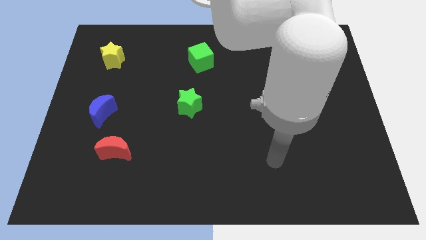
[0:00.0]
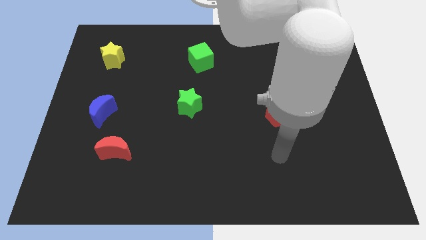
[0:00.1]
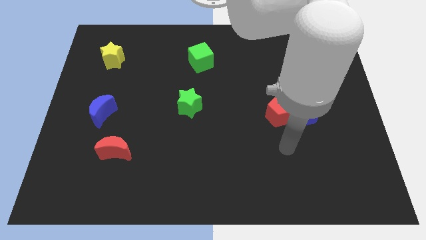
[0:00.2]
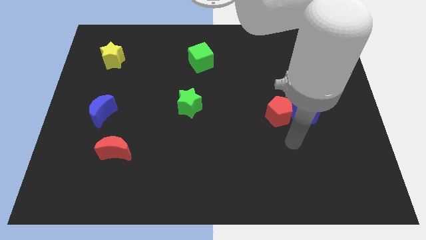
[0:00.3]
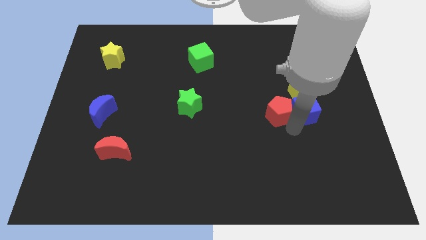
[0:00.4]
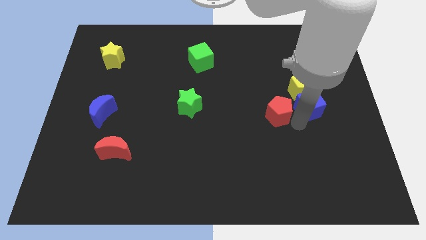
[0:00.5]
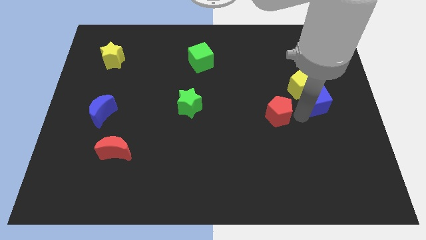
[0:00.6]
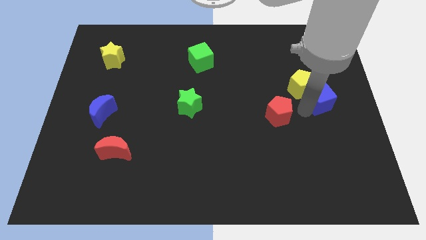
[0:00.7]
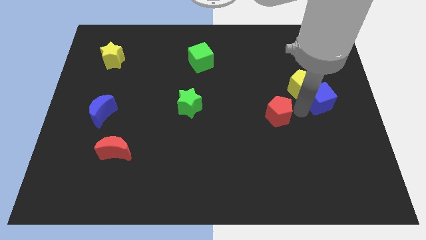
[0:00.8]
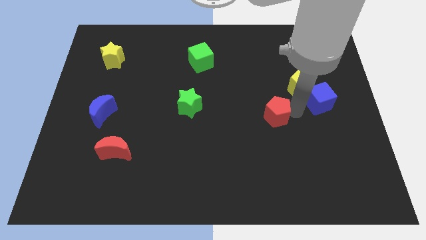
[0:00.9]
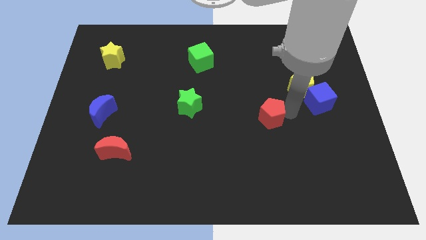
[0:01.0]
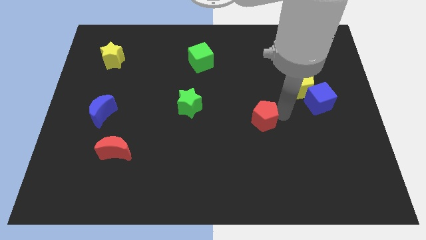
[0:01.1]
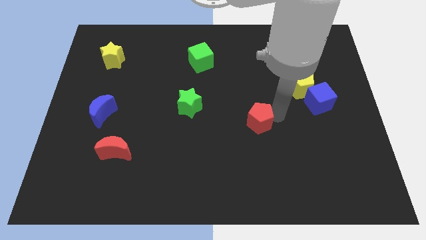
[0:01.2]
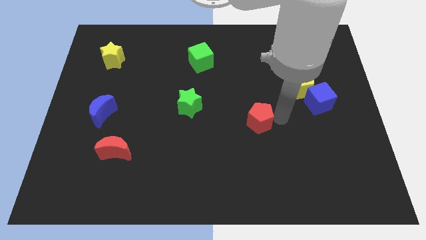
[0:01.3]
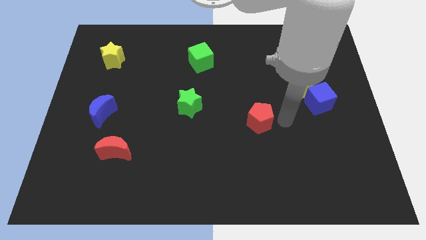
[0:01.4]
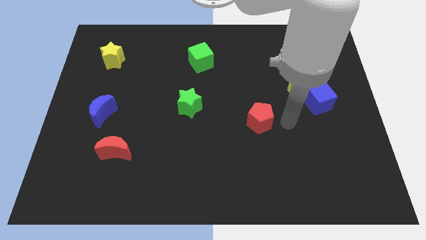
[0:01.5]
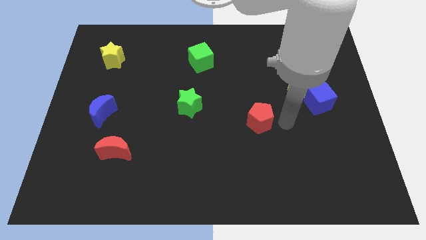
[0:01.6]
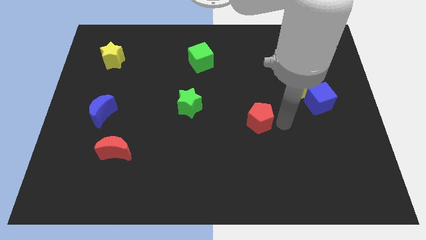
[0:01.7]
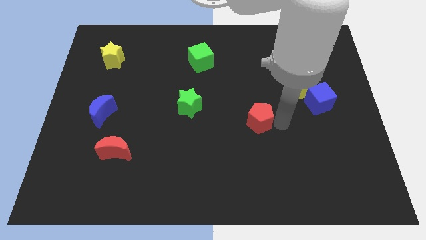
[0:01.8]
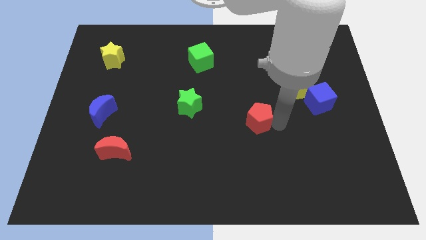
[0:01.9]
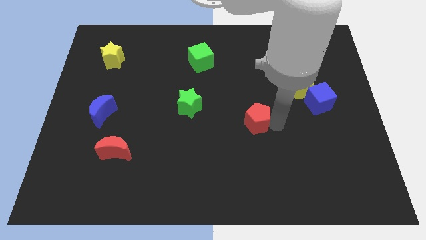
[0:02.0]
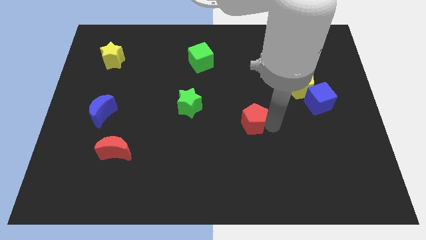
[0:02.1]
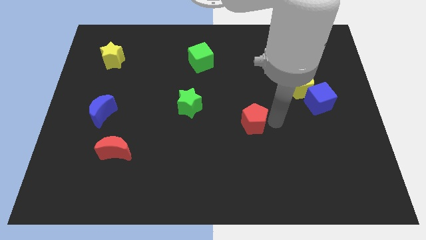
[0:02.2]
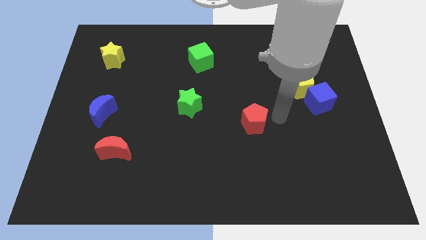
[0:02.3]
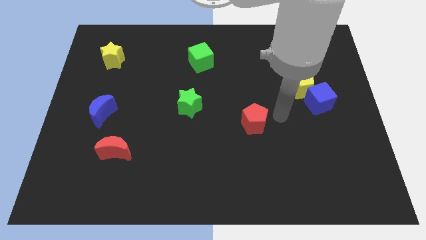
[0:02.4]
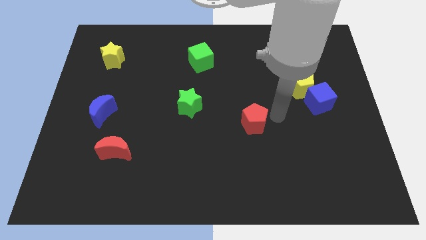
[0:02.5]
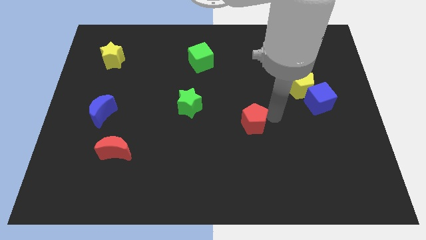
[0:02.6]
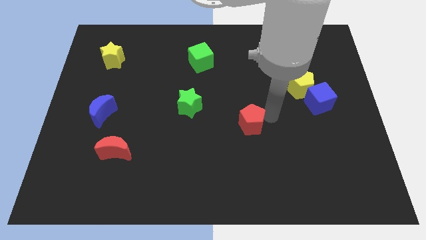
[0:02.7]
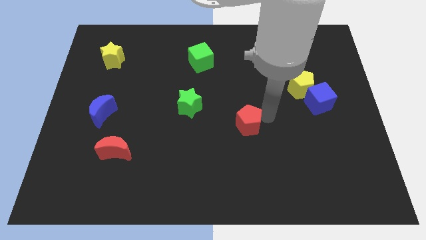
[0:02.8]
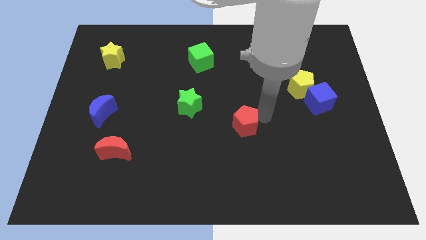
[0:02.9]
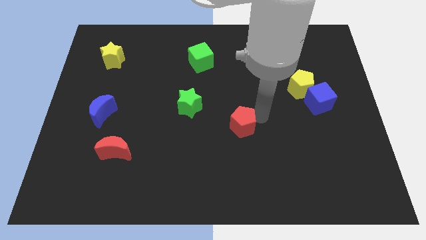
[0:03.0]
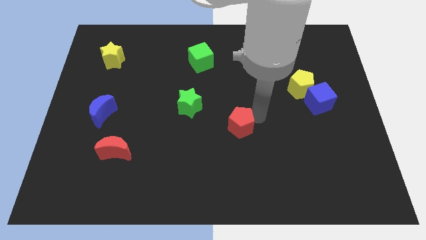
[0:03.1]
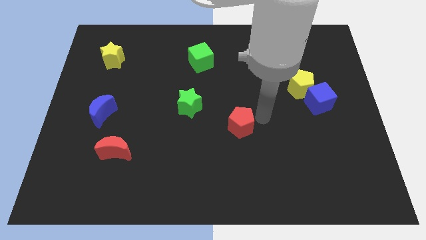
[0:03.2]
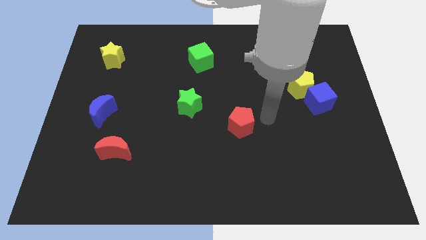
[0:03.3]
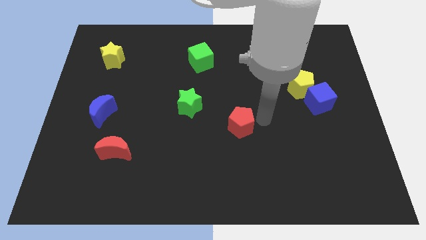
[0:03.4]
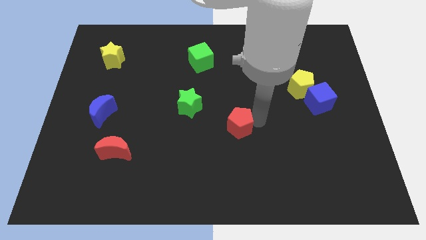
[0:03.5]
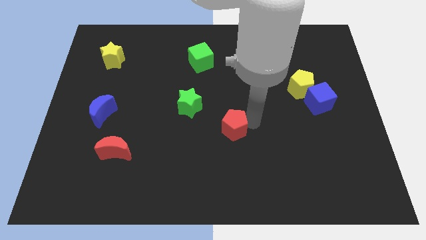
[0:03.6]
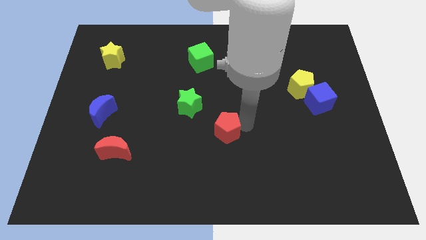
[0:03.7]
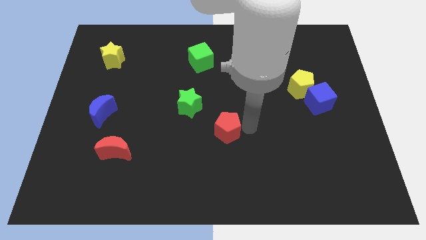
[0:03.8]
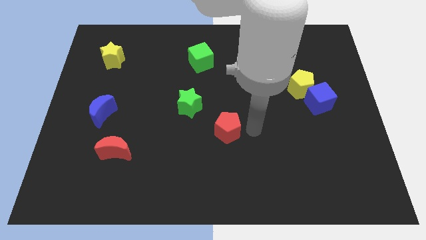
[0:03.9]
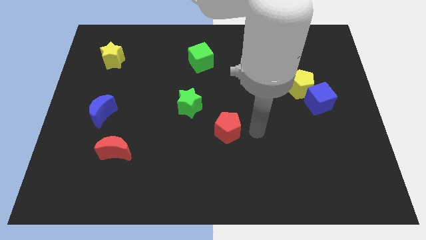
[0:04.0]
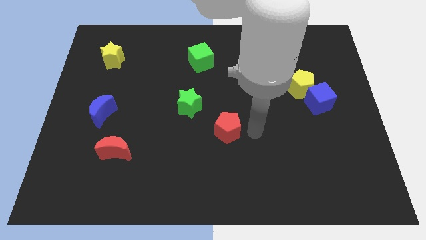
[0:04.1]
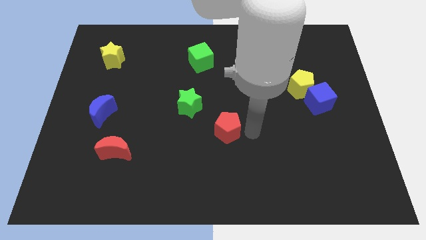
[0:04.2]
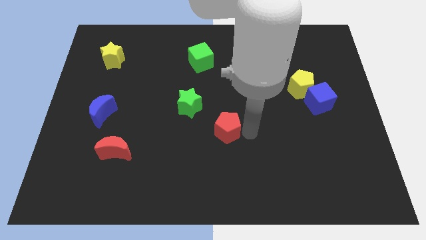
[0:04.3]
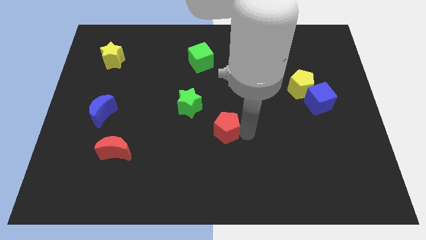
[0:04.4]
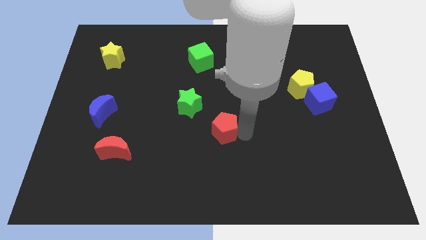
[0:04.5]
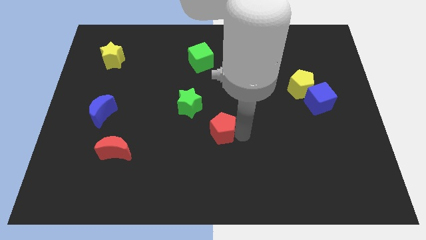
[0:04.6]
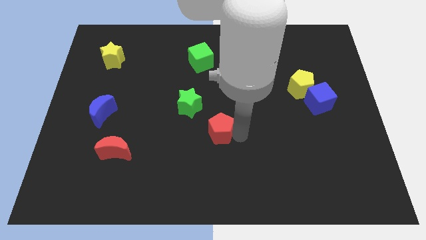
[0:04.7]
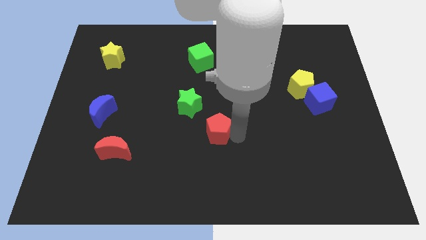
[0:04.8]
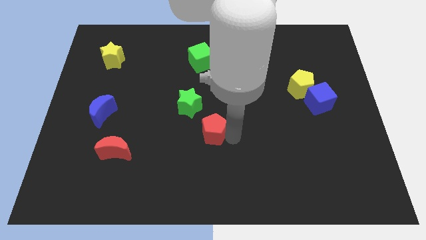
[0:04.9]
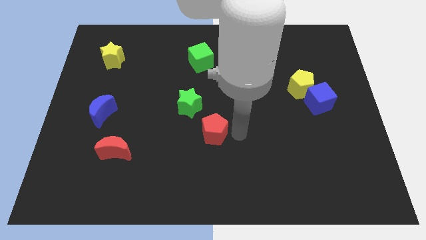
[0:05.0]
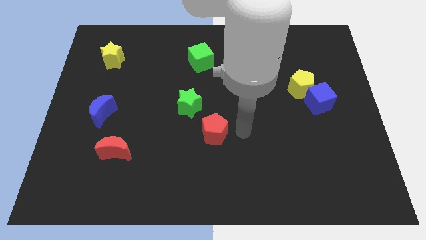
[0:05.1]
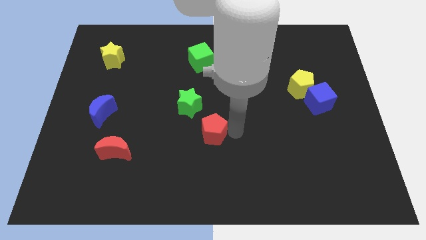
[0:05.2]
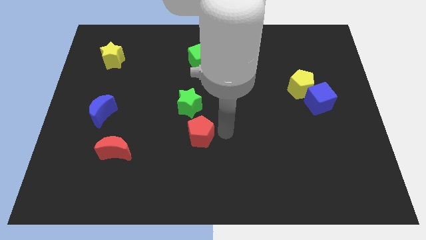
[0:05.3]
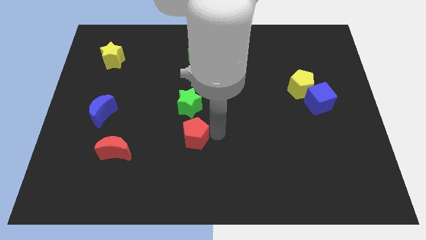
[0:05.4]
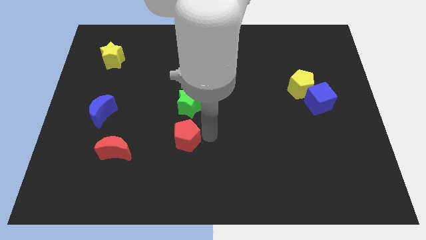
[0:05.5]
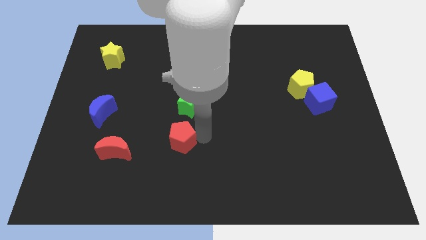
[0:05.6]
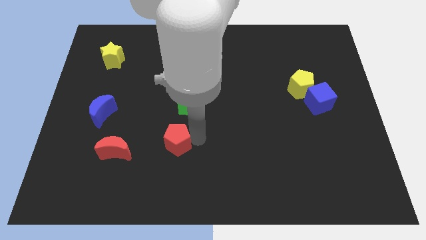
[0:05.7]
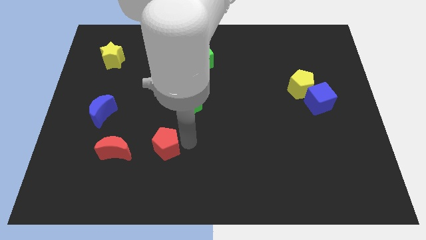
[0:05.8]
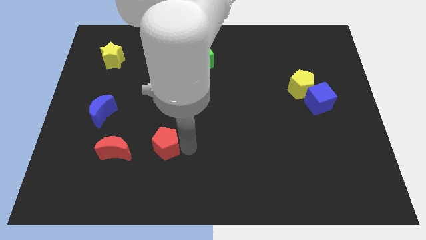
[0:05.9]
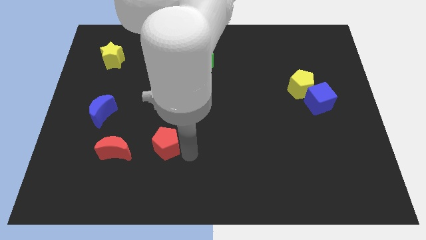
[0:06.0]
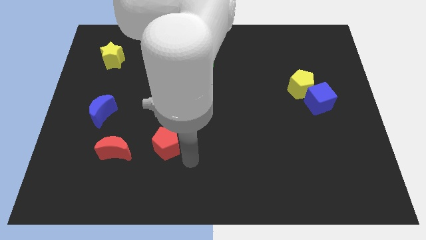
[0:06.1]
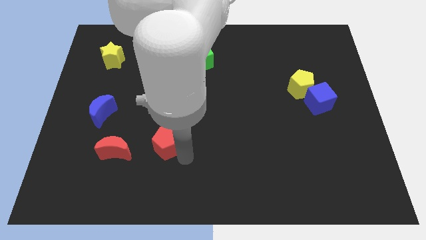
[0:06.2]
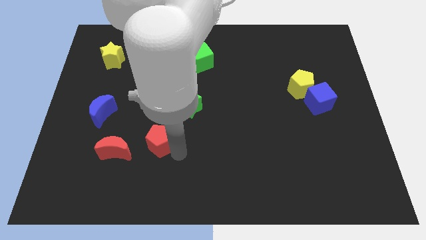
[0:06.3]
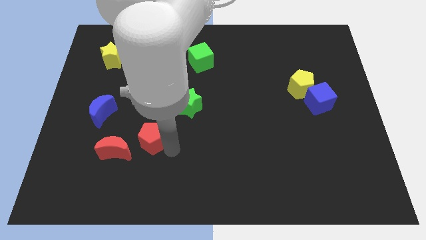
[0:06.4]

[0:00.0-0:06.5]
push the red pentagon diagonally up and to the right of the red moon

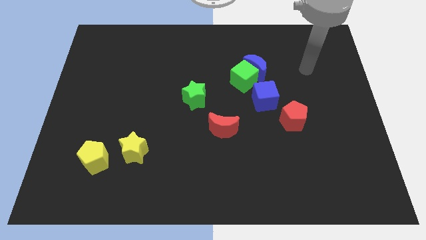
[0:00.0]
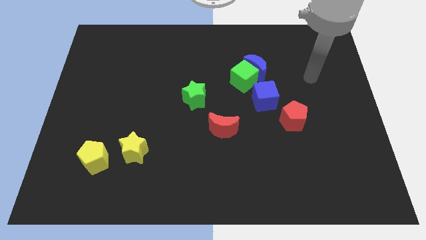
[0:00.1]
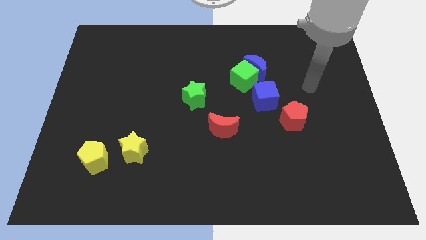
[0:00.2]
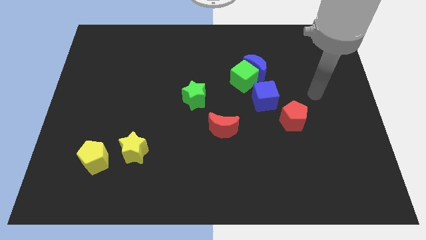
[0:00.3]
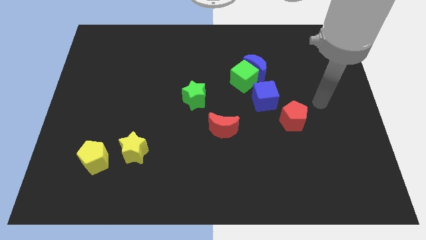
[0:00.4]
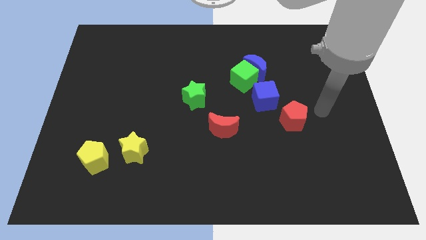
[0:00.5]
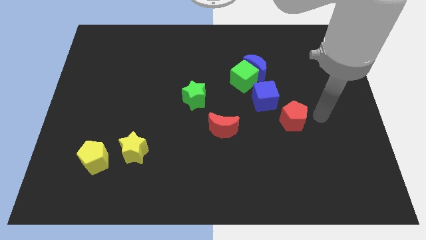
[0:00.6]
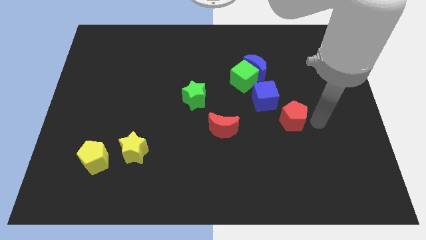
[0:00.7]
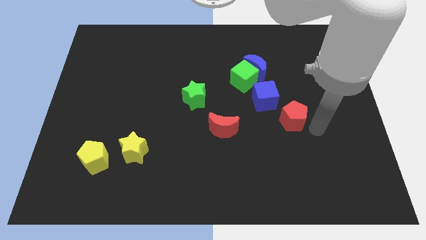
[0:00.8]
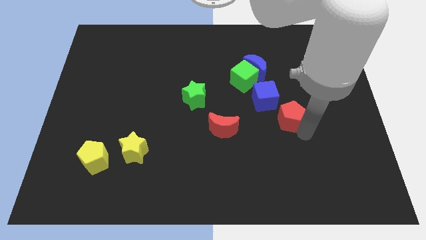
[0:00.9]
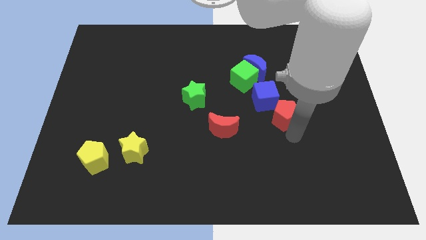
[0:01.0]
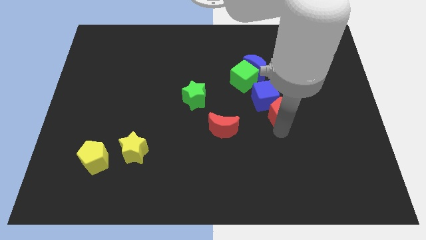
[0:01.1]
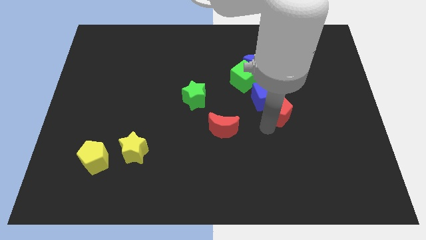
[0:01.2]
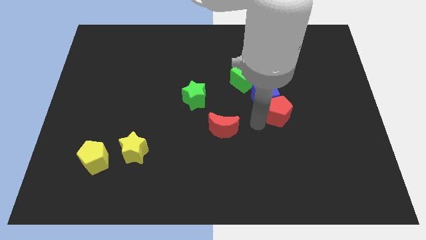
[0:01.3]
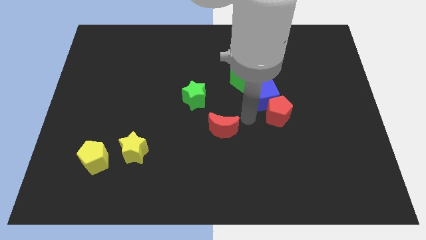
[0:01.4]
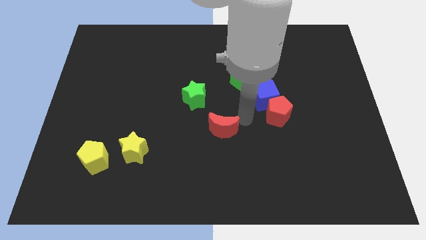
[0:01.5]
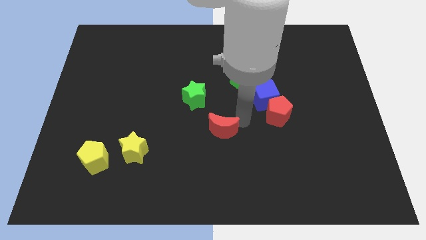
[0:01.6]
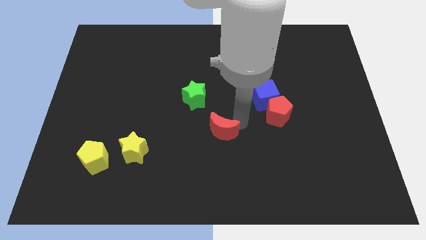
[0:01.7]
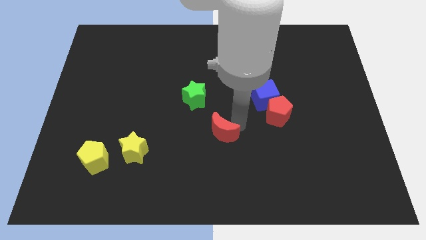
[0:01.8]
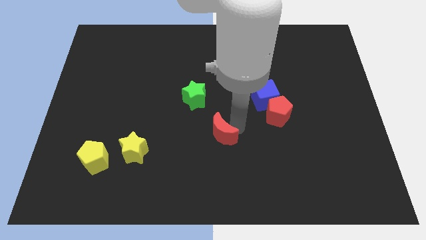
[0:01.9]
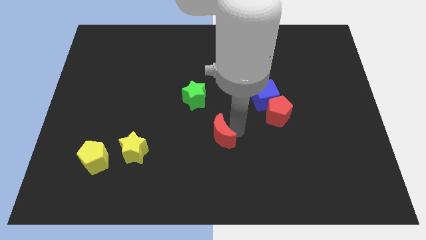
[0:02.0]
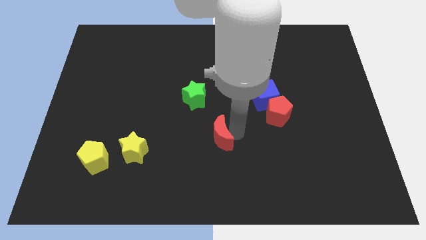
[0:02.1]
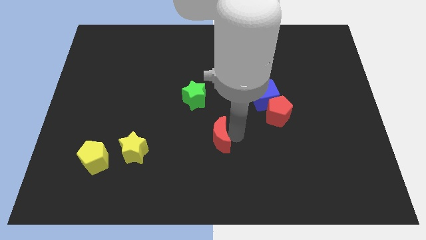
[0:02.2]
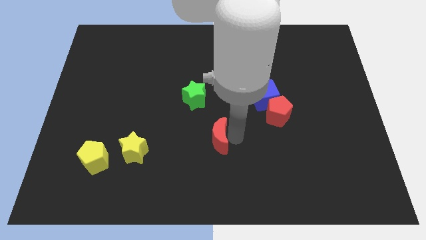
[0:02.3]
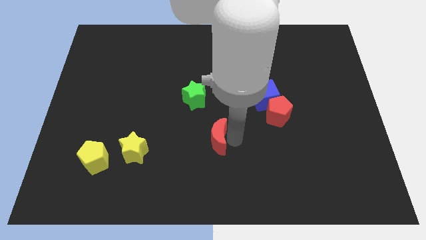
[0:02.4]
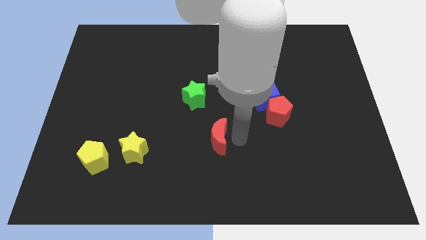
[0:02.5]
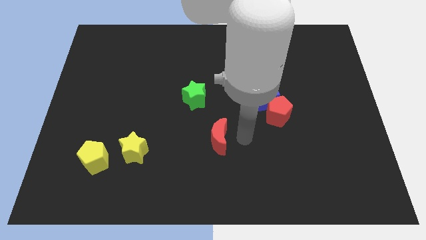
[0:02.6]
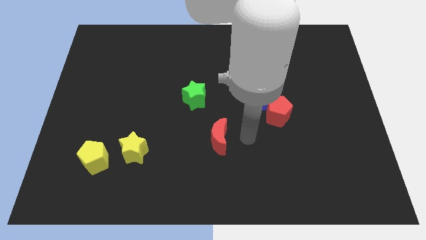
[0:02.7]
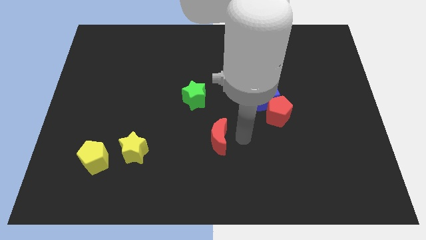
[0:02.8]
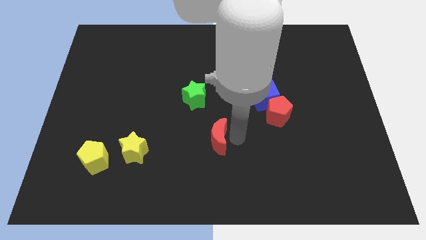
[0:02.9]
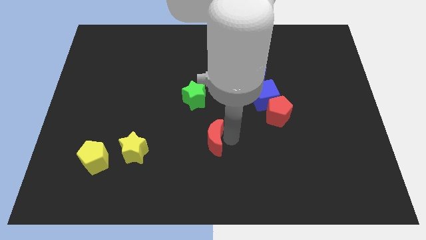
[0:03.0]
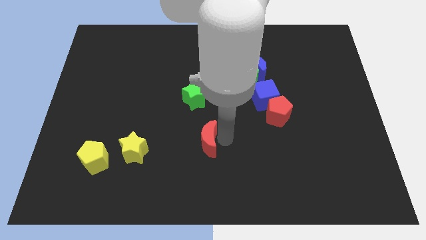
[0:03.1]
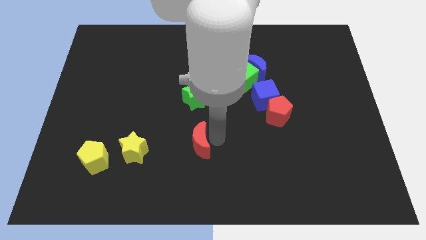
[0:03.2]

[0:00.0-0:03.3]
push the red moon to the right of the yellow star
